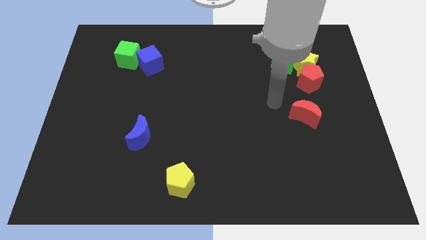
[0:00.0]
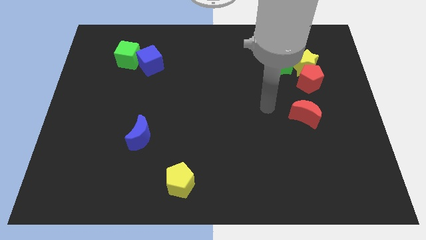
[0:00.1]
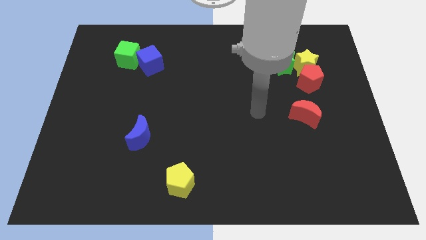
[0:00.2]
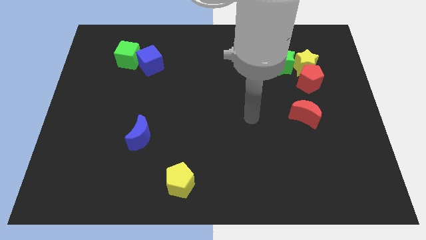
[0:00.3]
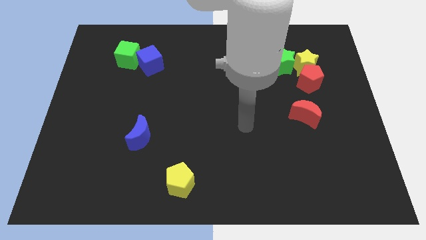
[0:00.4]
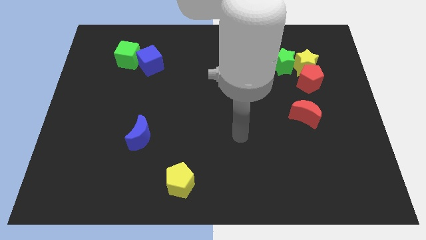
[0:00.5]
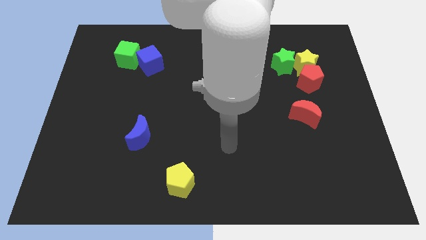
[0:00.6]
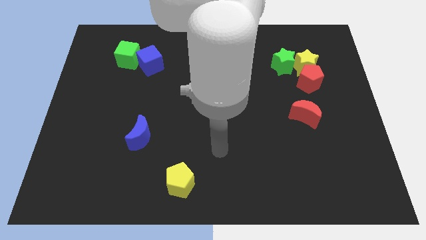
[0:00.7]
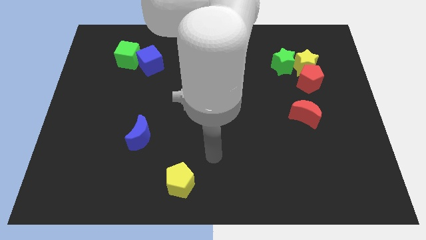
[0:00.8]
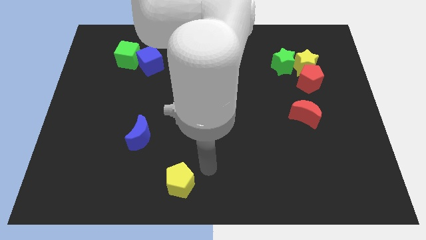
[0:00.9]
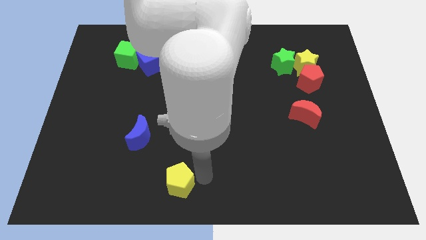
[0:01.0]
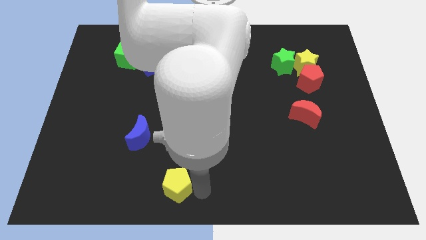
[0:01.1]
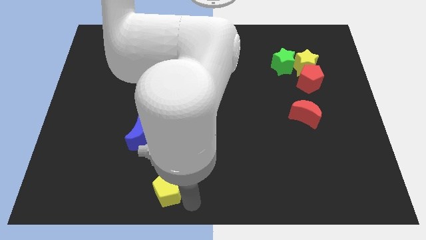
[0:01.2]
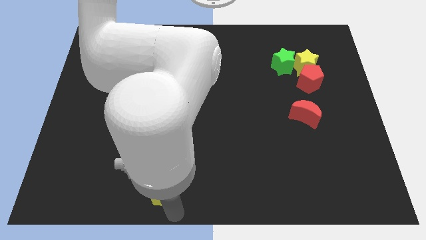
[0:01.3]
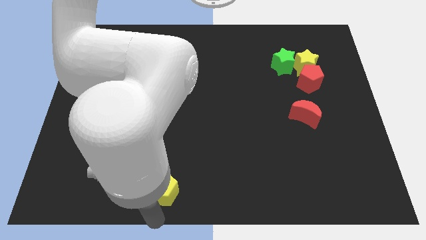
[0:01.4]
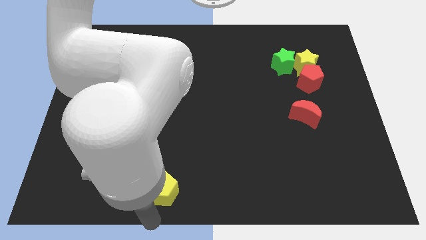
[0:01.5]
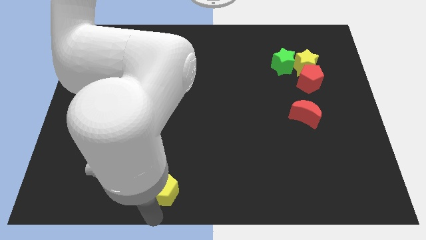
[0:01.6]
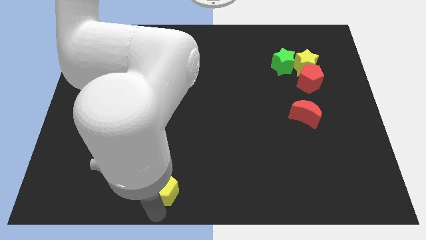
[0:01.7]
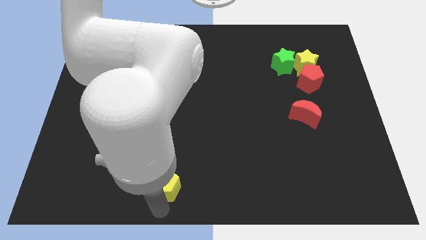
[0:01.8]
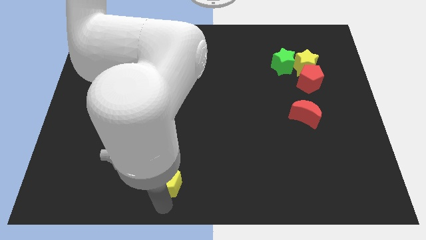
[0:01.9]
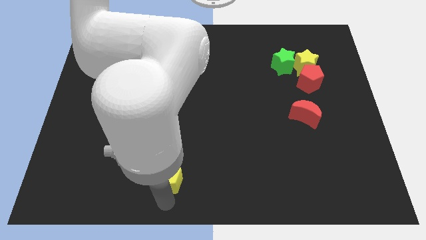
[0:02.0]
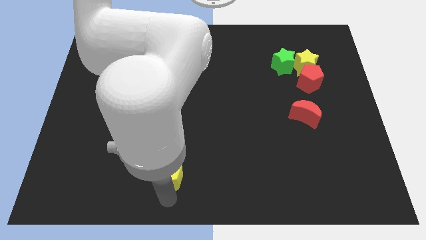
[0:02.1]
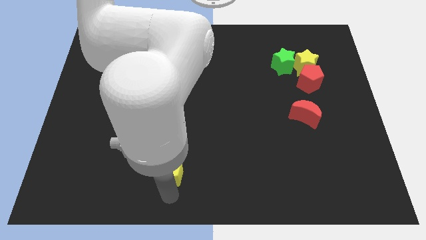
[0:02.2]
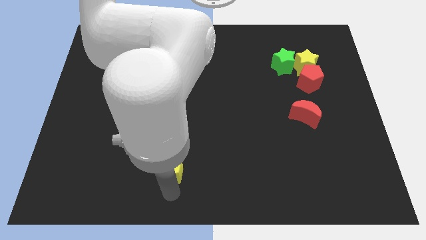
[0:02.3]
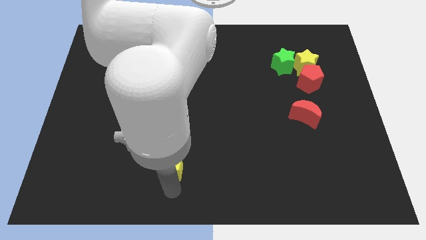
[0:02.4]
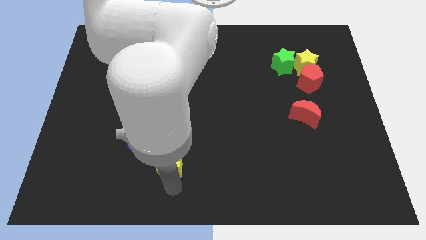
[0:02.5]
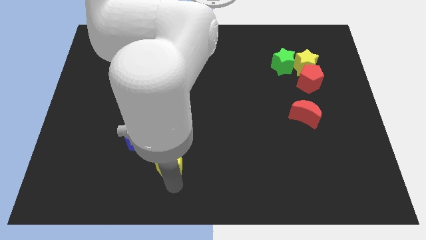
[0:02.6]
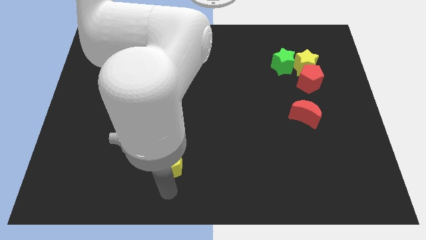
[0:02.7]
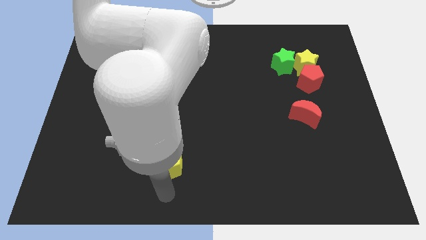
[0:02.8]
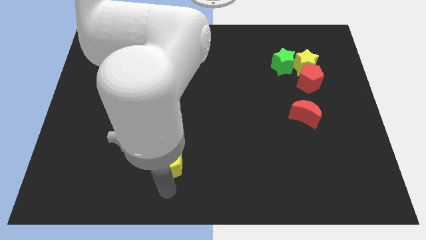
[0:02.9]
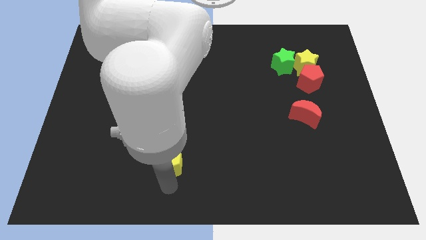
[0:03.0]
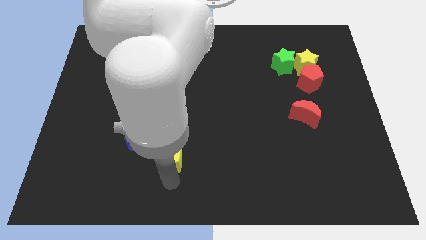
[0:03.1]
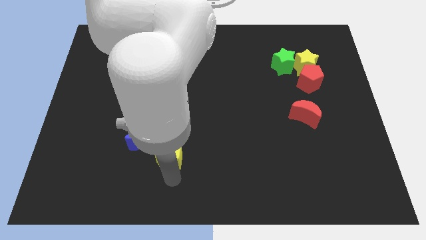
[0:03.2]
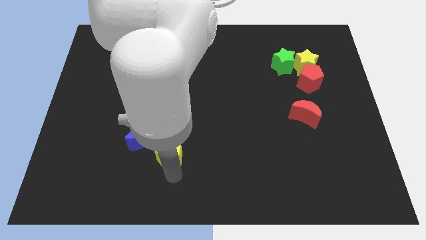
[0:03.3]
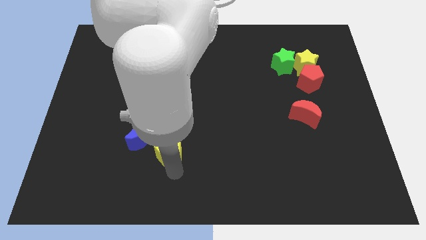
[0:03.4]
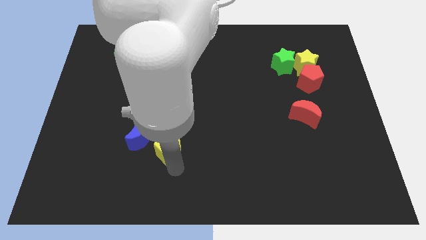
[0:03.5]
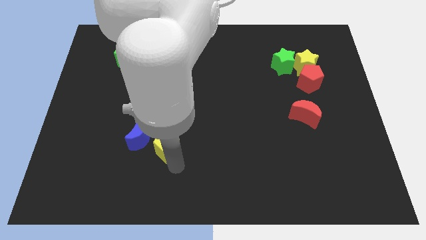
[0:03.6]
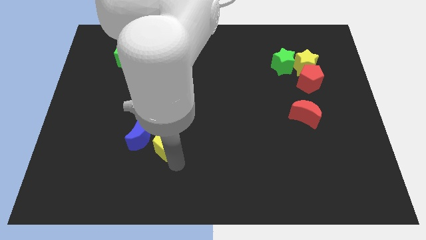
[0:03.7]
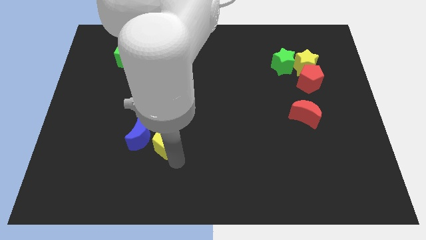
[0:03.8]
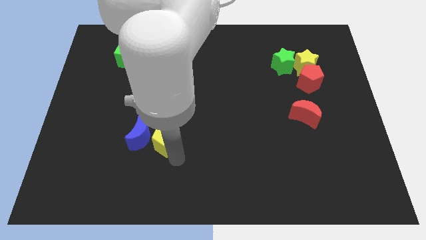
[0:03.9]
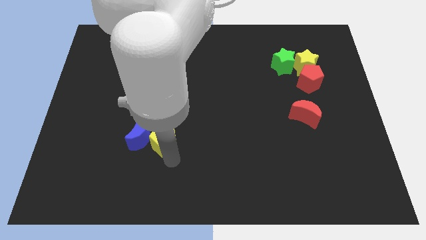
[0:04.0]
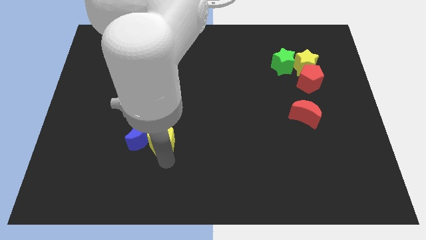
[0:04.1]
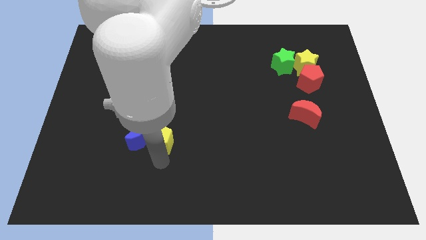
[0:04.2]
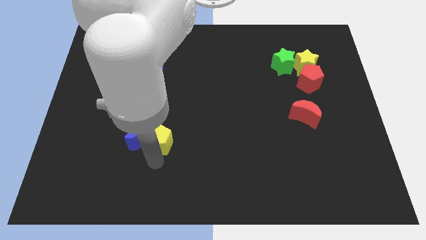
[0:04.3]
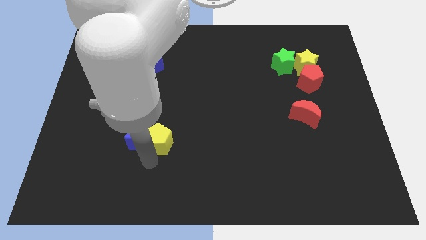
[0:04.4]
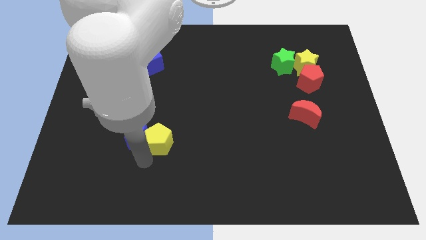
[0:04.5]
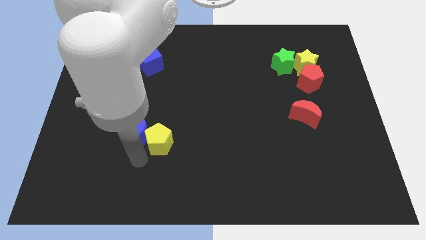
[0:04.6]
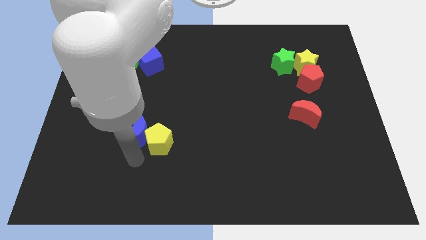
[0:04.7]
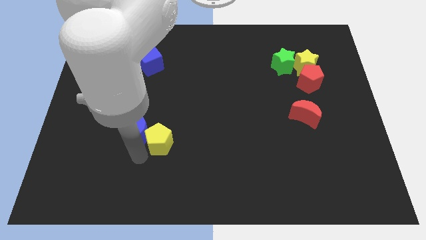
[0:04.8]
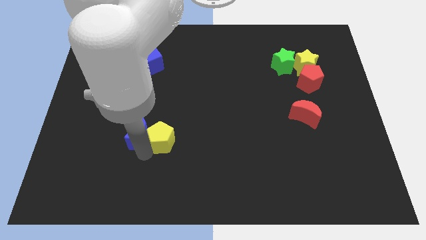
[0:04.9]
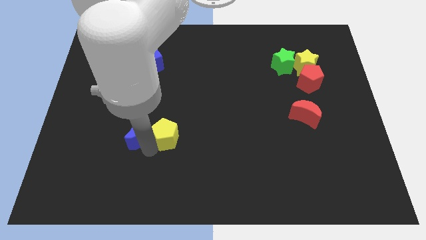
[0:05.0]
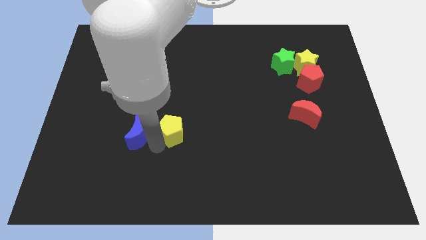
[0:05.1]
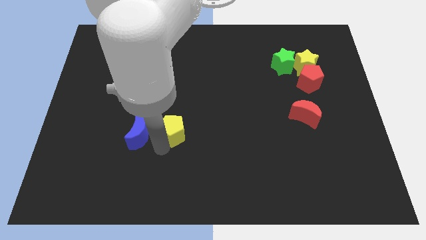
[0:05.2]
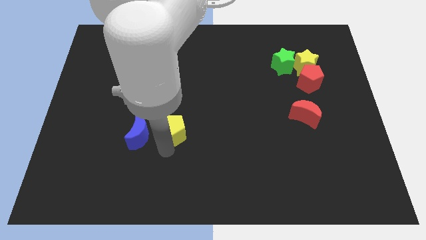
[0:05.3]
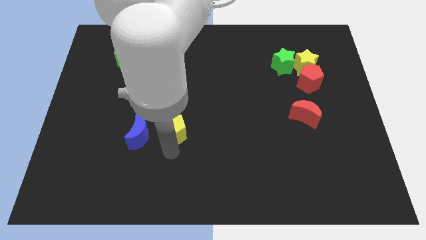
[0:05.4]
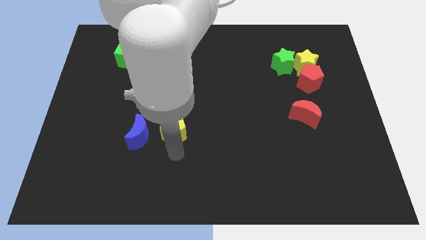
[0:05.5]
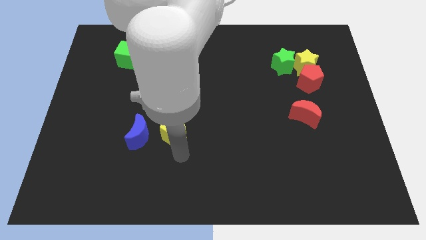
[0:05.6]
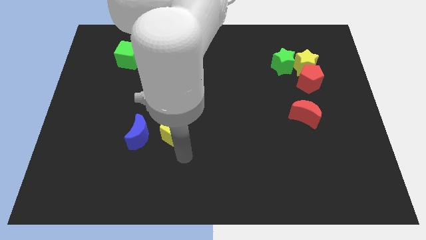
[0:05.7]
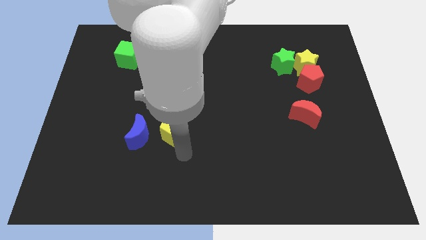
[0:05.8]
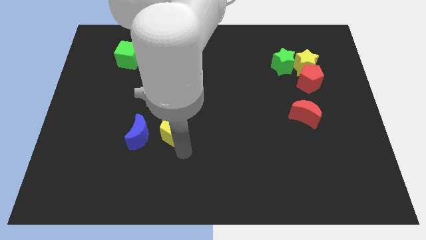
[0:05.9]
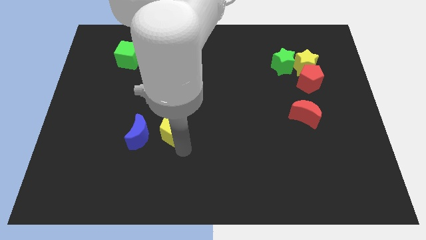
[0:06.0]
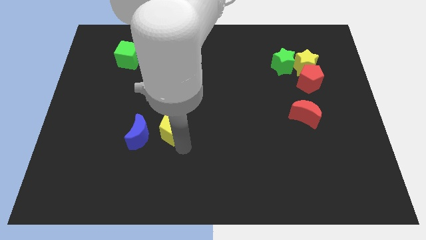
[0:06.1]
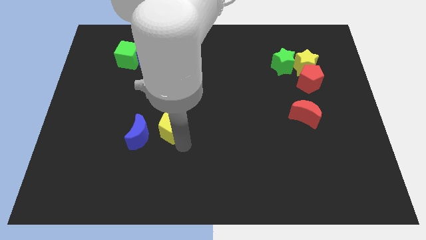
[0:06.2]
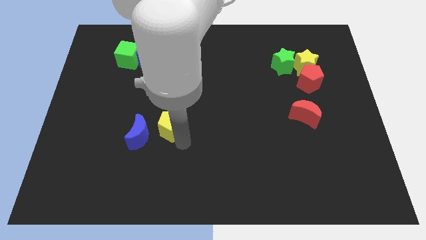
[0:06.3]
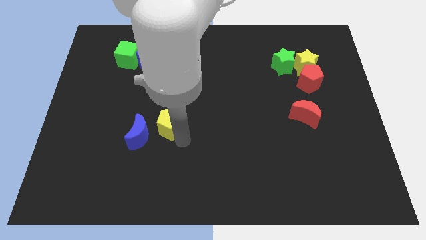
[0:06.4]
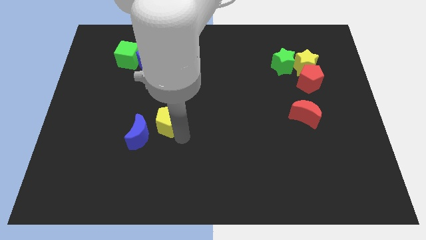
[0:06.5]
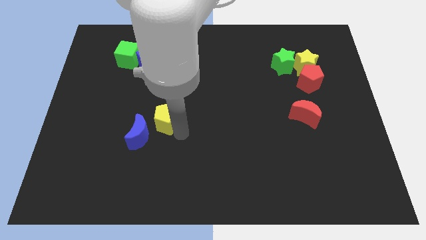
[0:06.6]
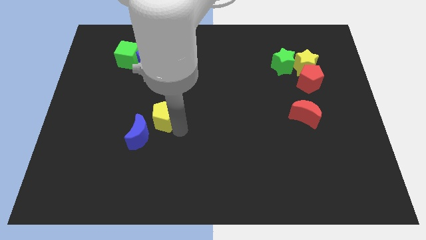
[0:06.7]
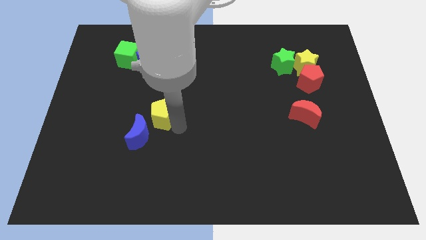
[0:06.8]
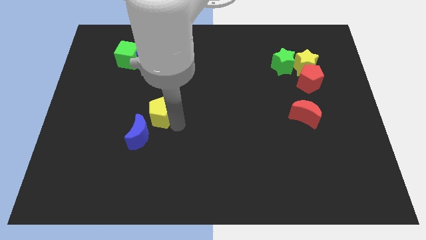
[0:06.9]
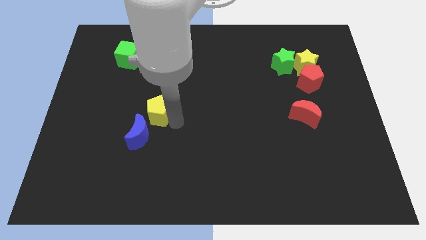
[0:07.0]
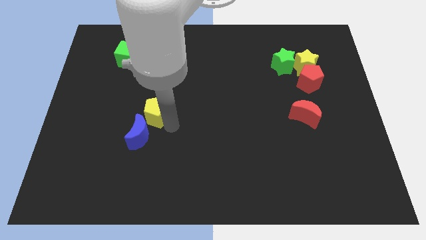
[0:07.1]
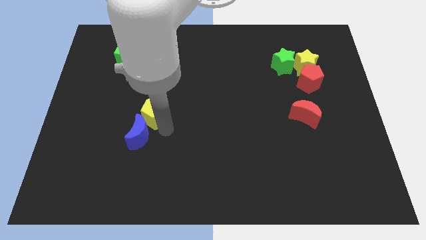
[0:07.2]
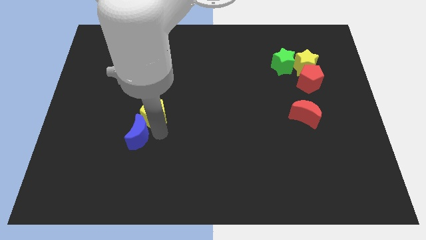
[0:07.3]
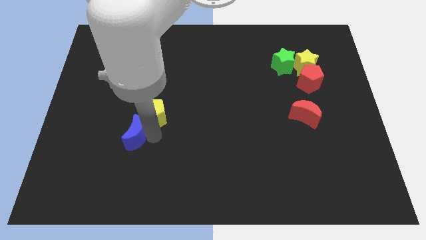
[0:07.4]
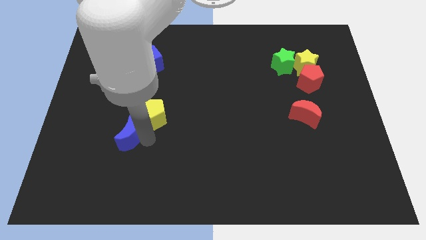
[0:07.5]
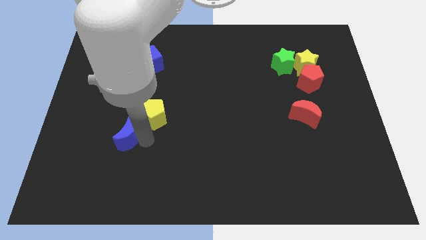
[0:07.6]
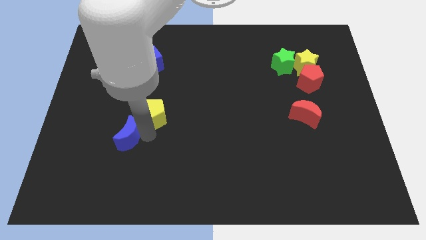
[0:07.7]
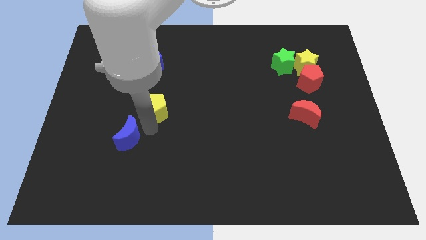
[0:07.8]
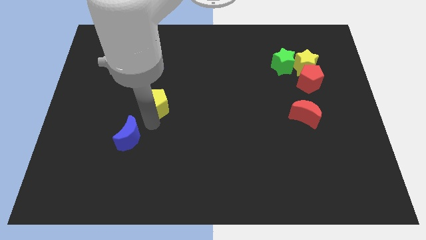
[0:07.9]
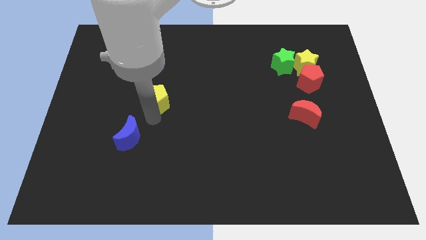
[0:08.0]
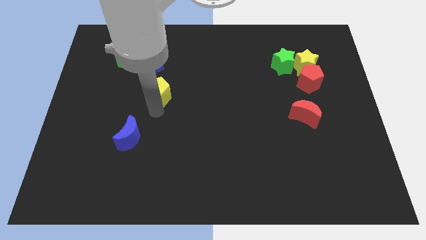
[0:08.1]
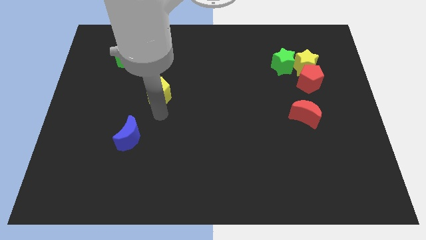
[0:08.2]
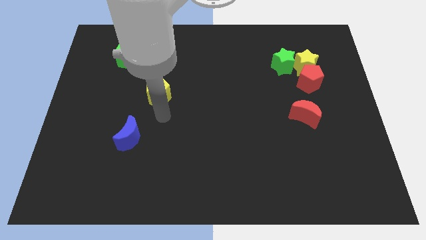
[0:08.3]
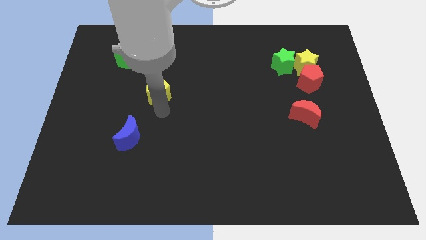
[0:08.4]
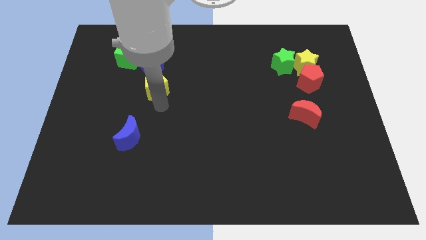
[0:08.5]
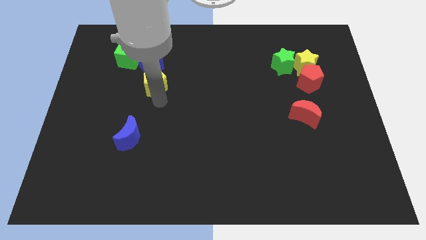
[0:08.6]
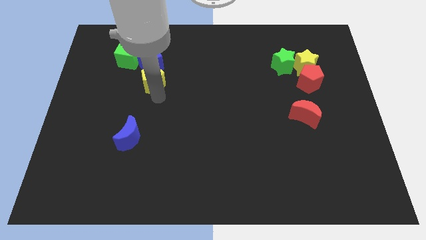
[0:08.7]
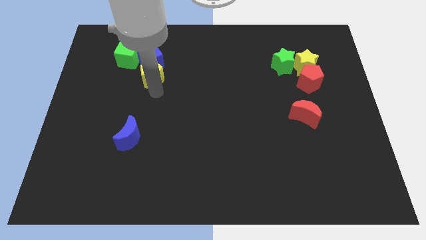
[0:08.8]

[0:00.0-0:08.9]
push the yellow pentagon close to the blue cube
